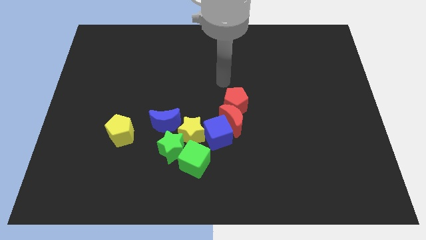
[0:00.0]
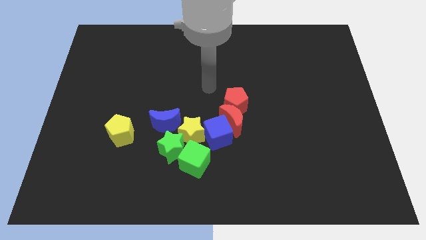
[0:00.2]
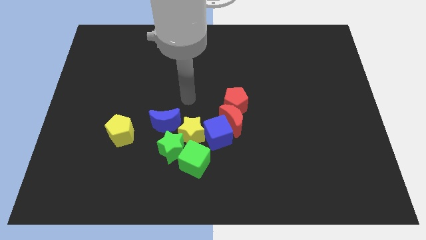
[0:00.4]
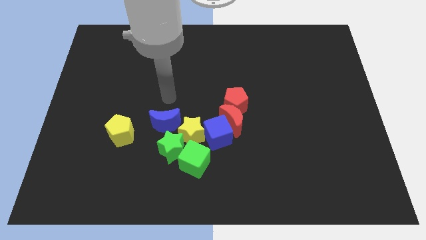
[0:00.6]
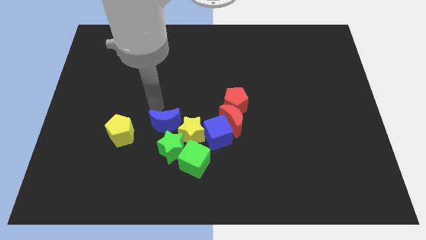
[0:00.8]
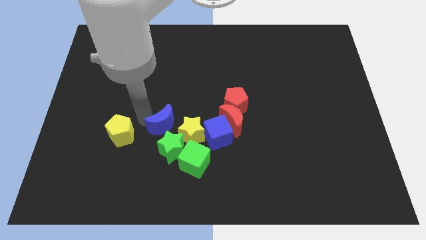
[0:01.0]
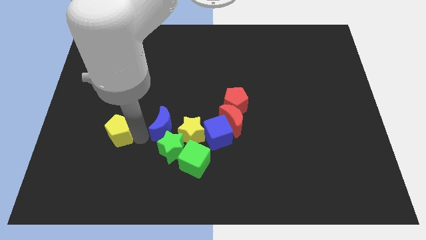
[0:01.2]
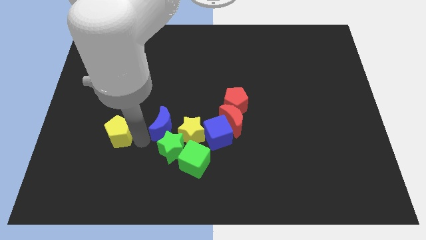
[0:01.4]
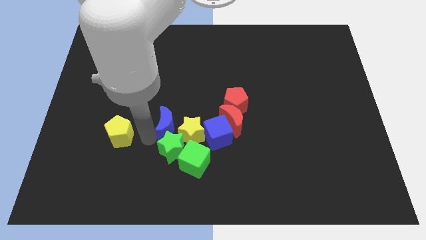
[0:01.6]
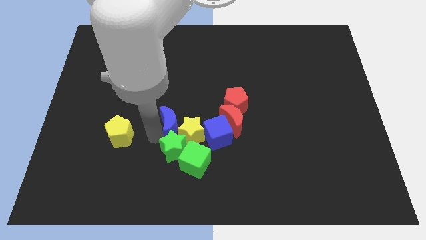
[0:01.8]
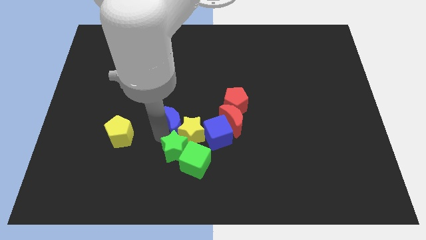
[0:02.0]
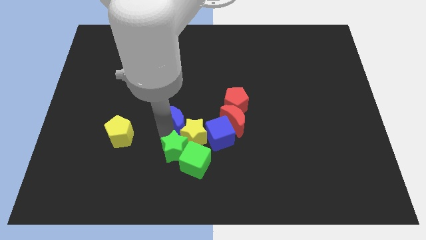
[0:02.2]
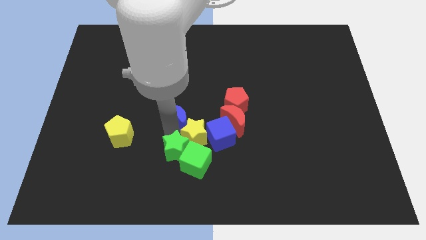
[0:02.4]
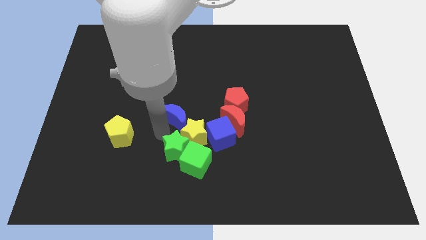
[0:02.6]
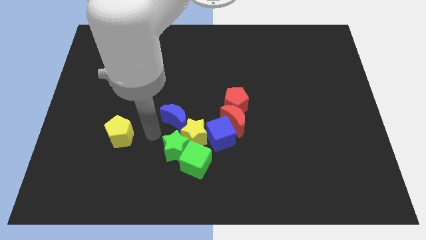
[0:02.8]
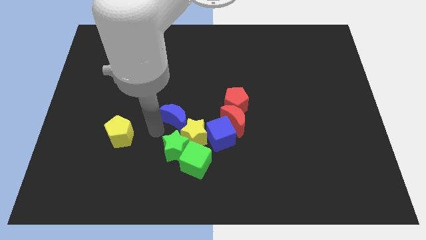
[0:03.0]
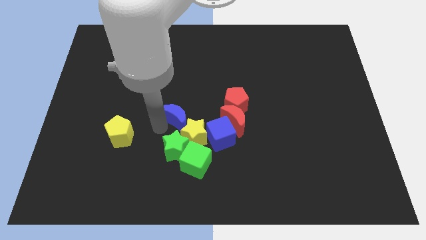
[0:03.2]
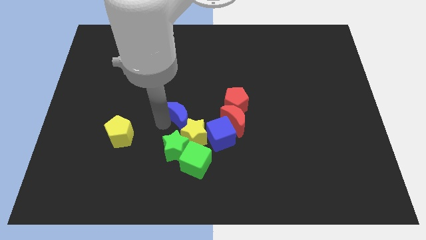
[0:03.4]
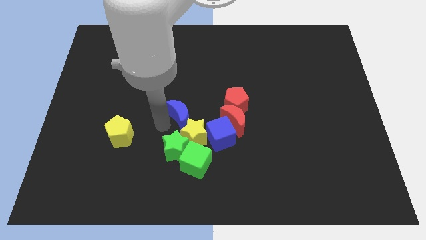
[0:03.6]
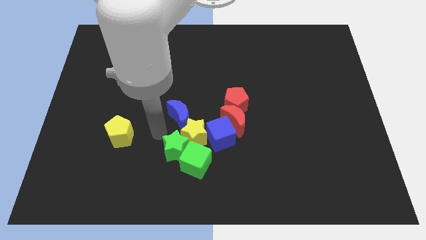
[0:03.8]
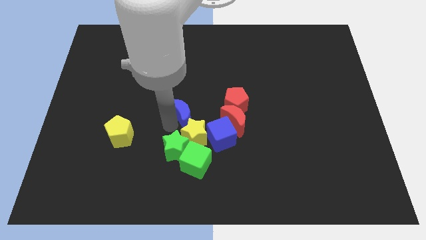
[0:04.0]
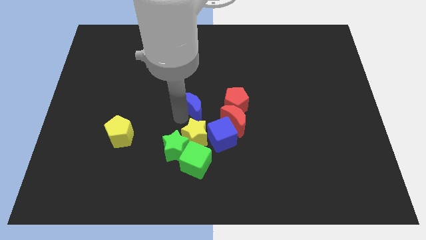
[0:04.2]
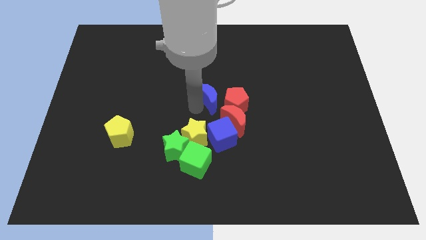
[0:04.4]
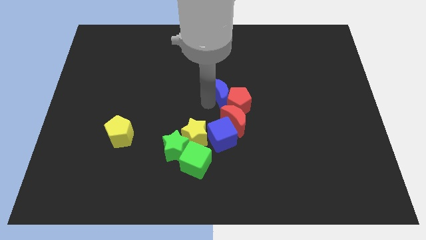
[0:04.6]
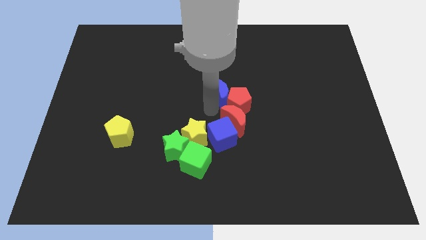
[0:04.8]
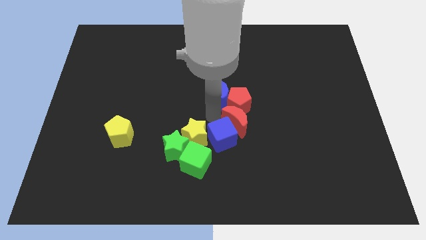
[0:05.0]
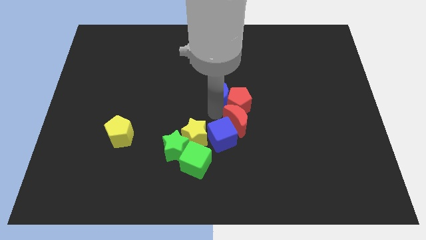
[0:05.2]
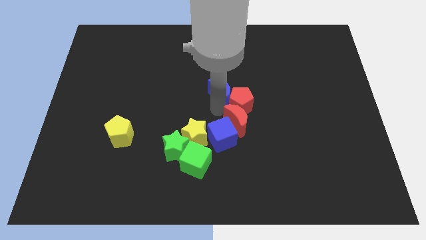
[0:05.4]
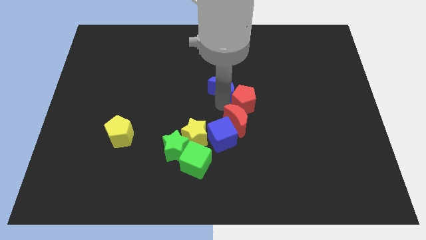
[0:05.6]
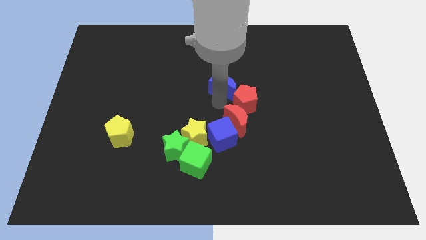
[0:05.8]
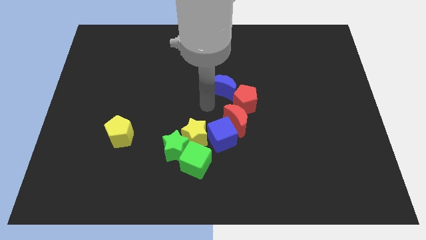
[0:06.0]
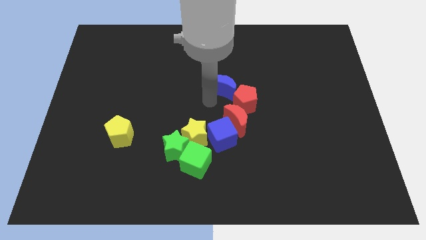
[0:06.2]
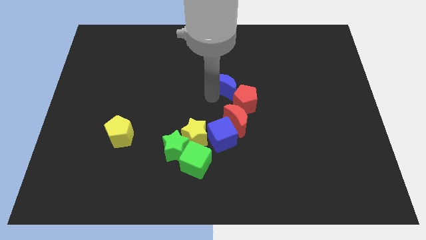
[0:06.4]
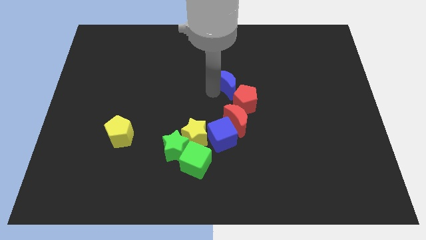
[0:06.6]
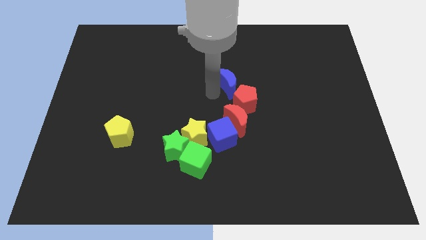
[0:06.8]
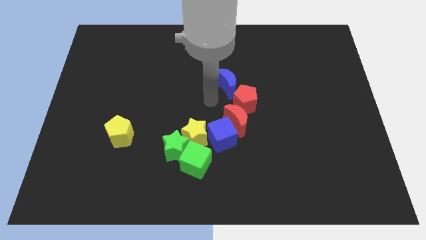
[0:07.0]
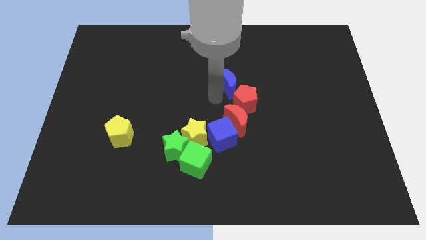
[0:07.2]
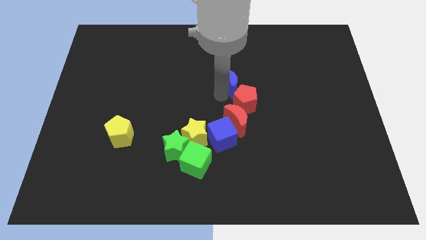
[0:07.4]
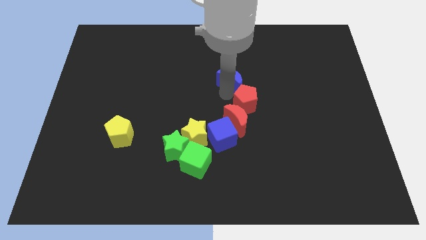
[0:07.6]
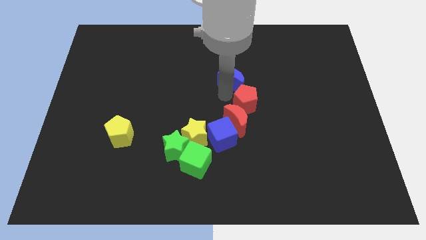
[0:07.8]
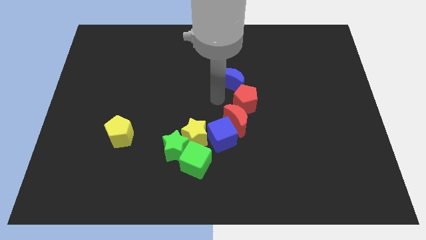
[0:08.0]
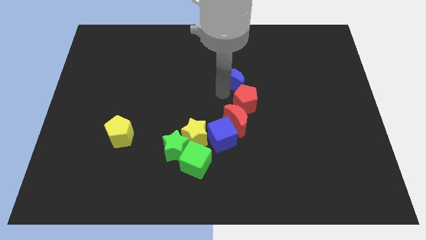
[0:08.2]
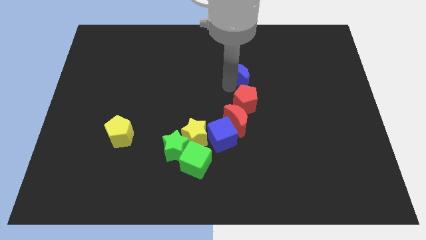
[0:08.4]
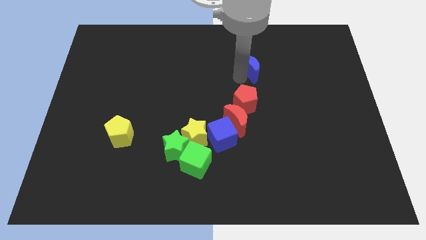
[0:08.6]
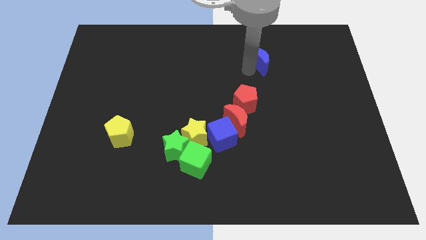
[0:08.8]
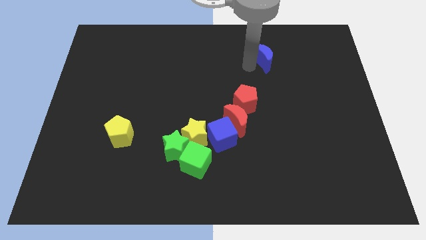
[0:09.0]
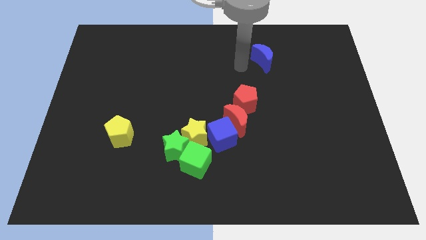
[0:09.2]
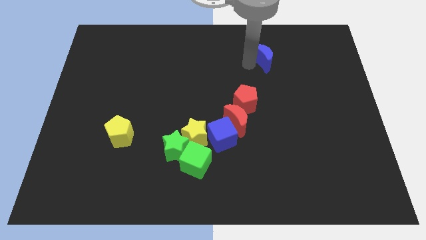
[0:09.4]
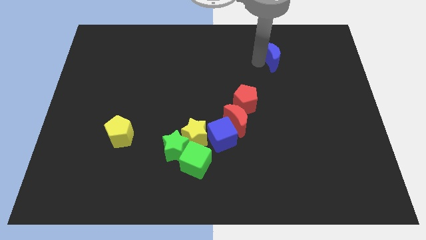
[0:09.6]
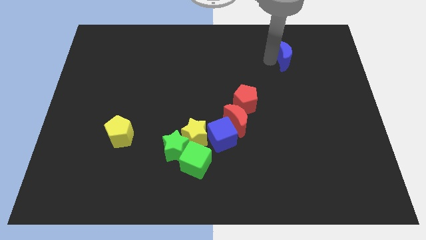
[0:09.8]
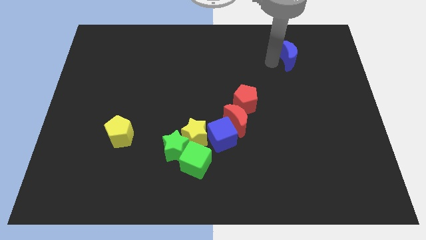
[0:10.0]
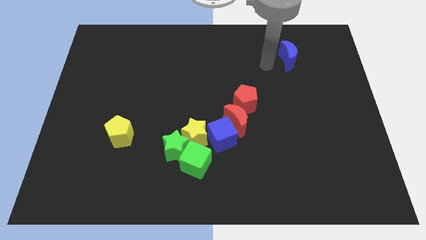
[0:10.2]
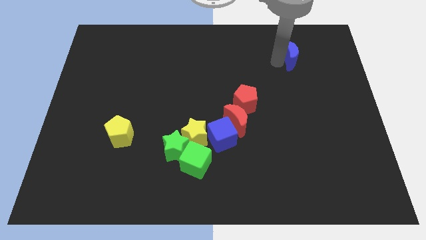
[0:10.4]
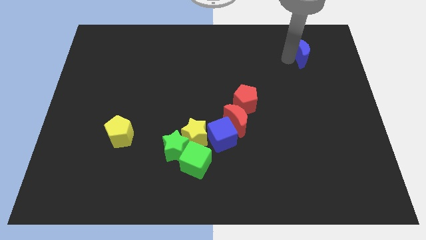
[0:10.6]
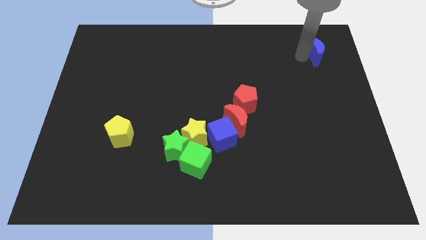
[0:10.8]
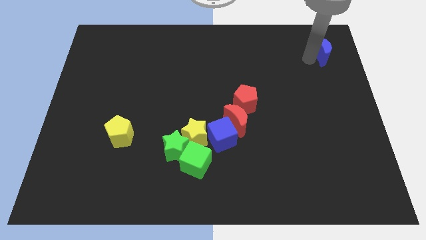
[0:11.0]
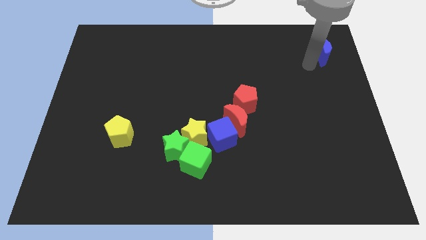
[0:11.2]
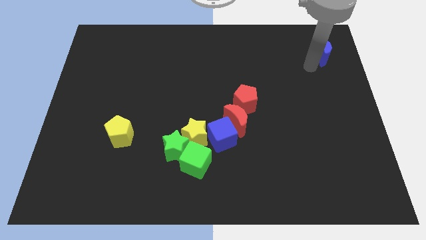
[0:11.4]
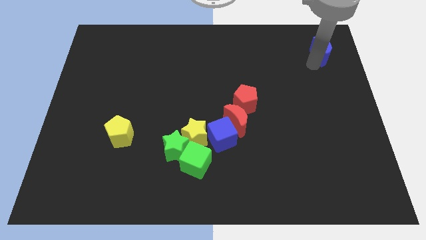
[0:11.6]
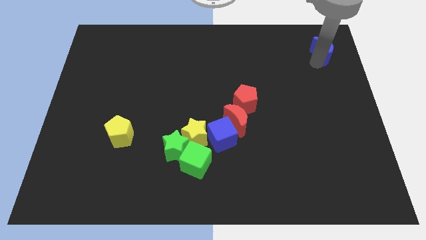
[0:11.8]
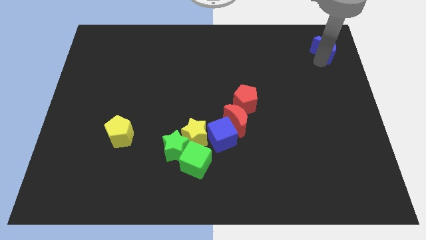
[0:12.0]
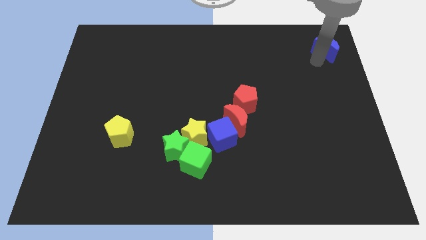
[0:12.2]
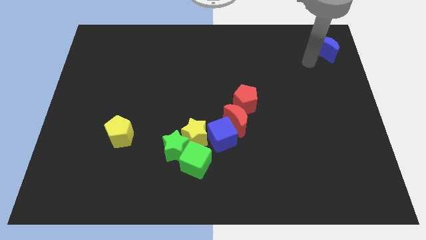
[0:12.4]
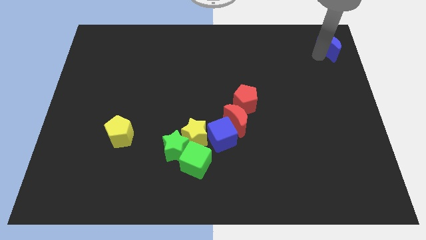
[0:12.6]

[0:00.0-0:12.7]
move the blue moon to the upper right corner
